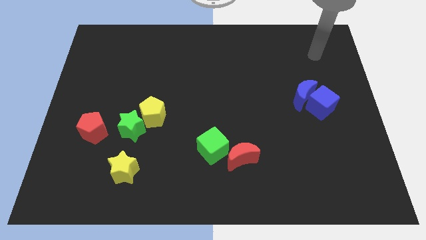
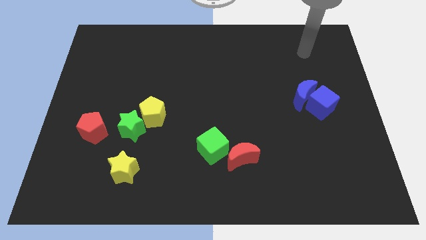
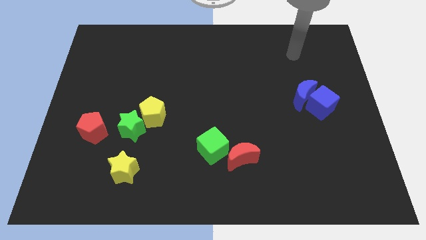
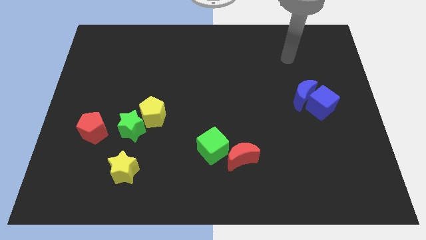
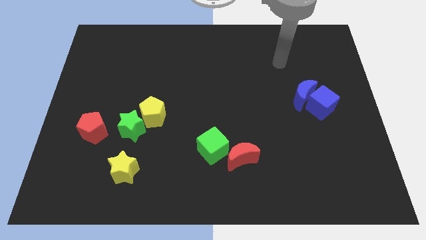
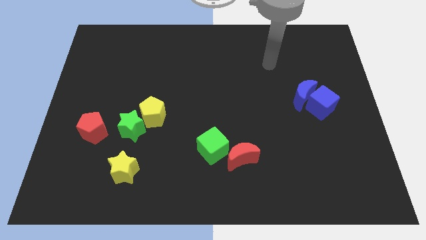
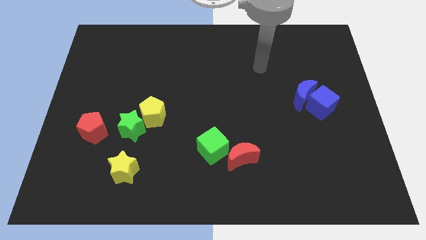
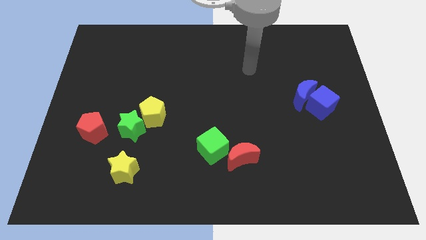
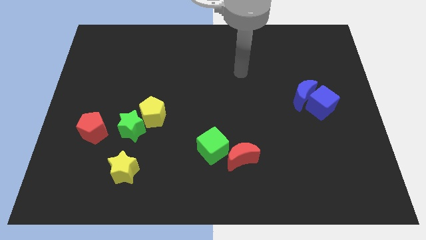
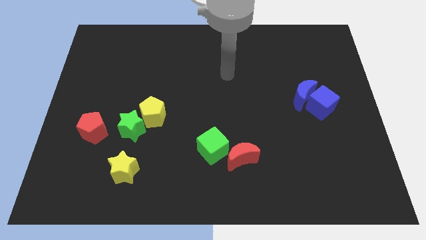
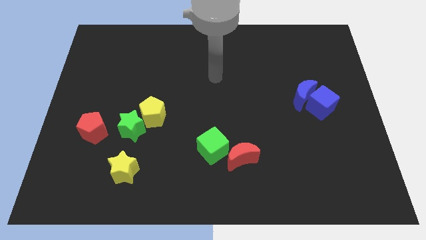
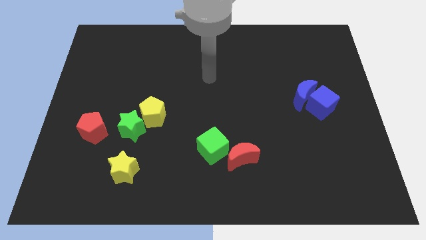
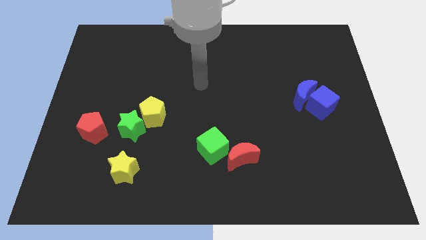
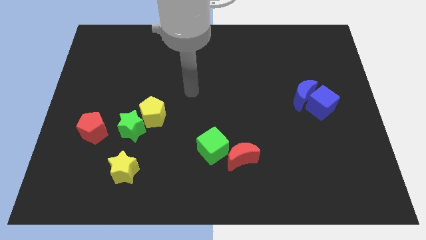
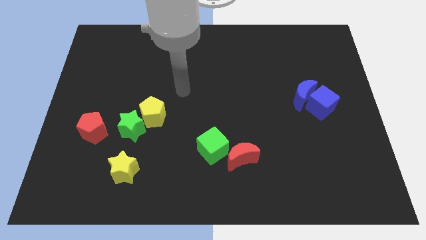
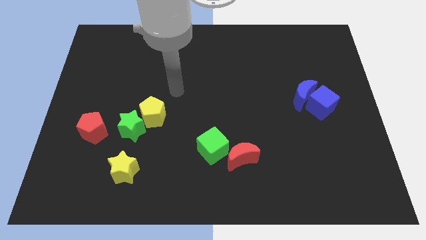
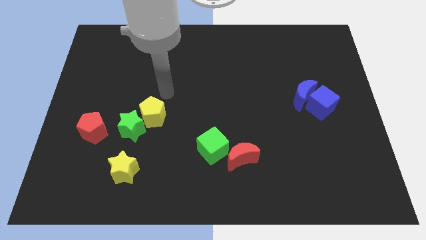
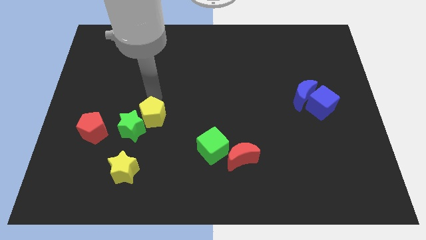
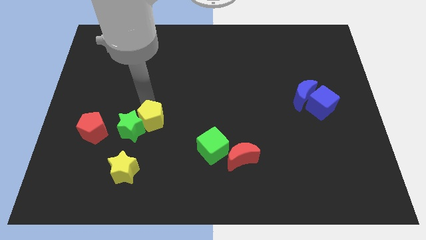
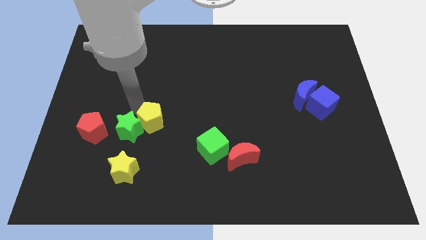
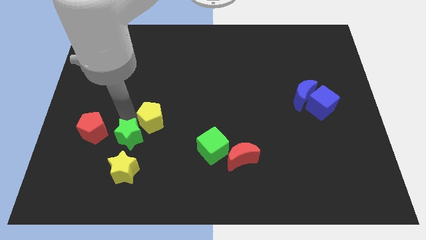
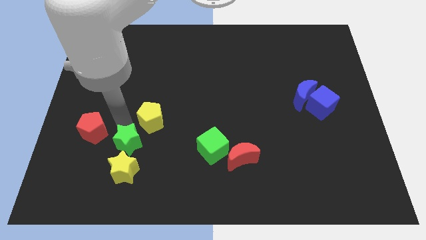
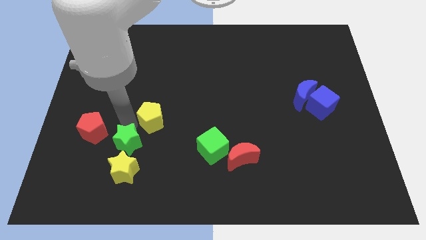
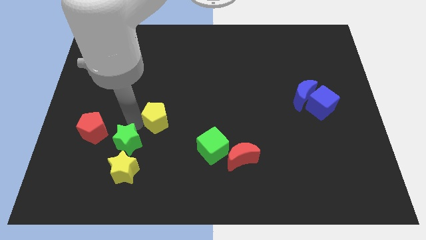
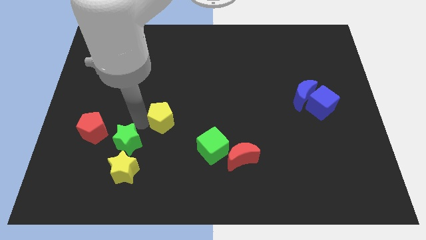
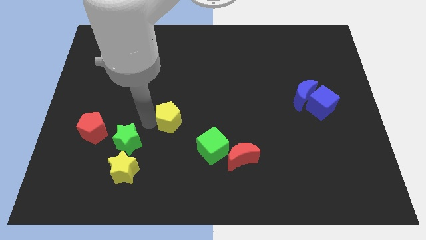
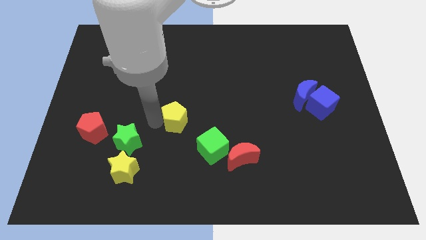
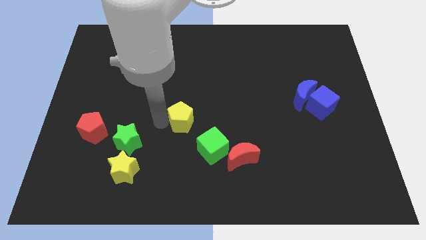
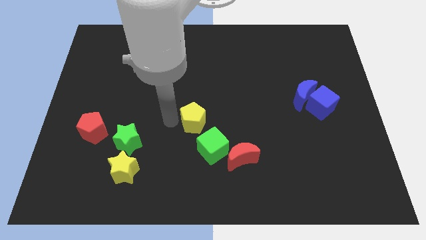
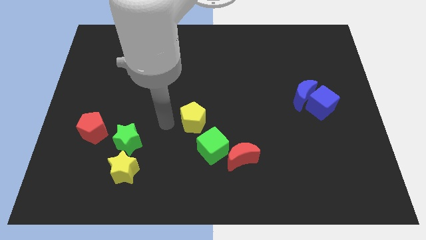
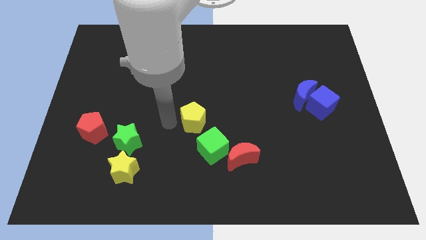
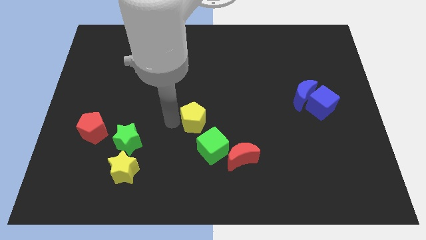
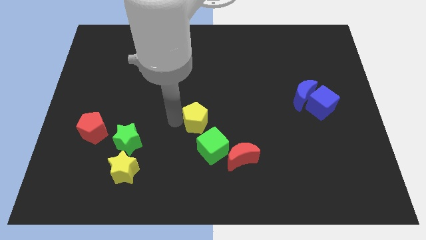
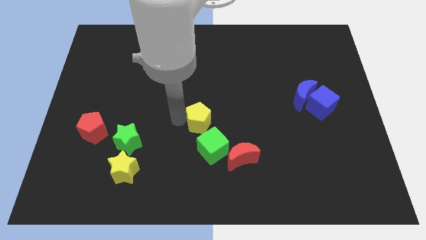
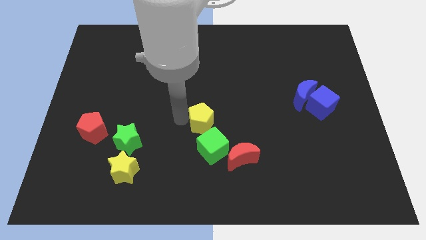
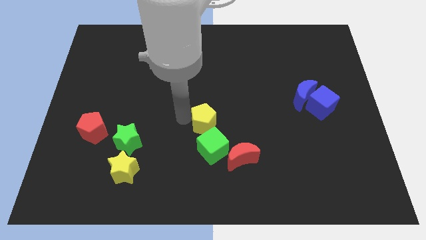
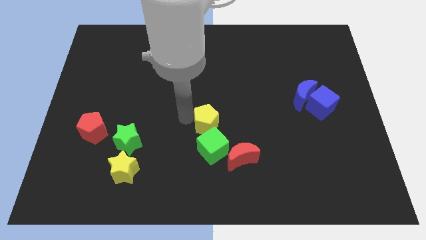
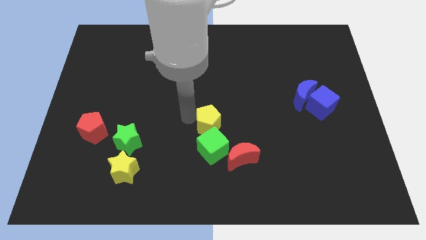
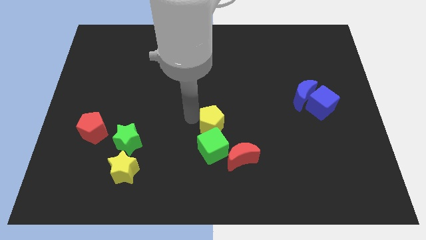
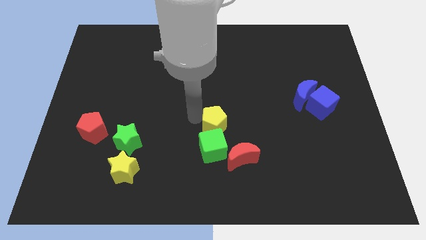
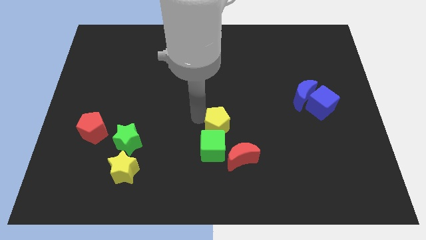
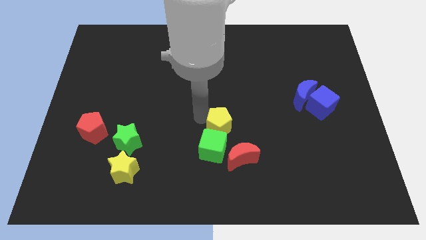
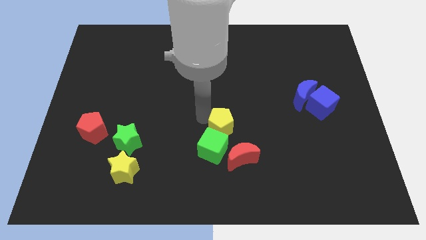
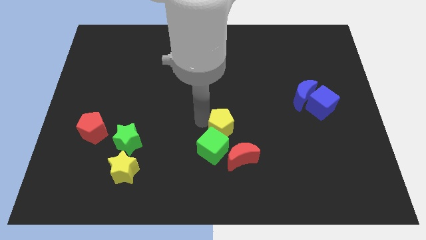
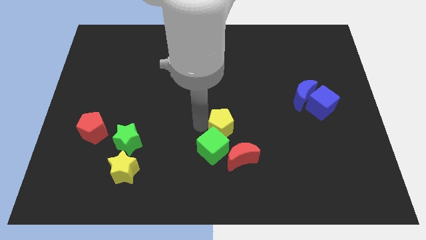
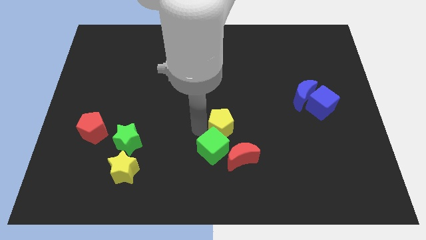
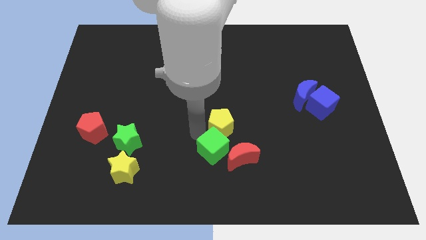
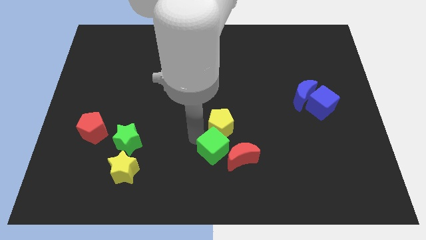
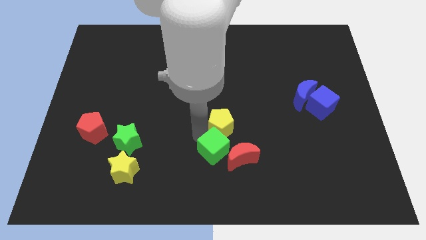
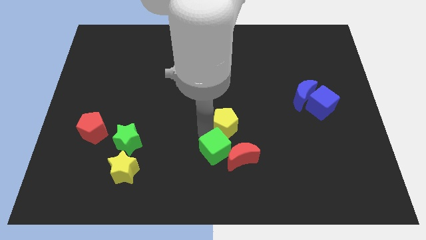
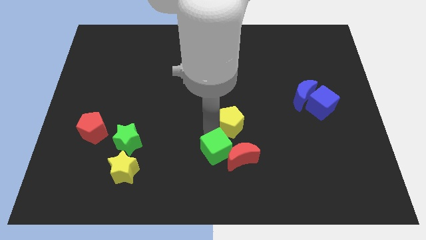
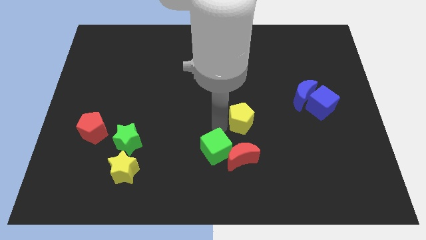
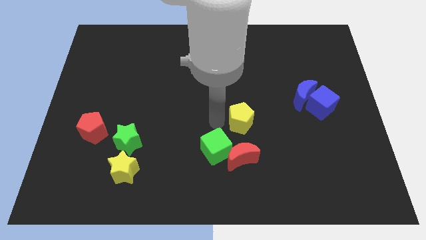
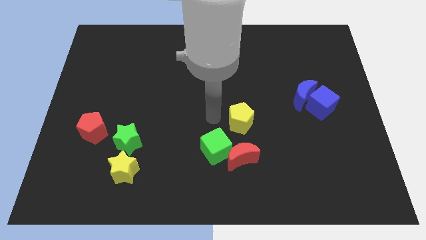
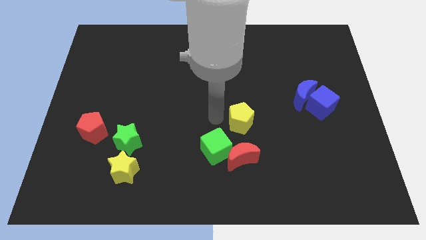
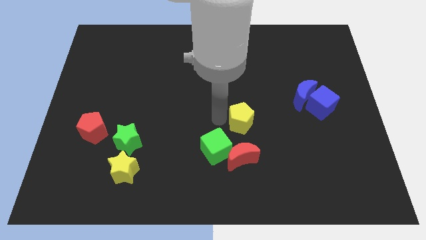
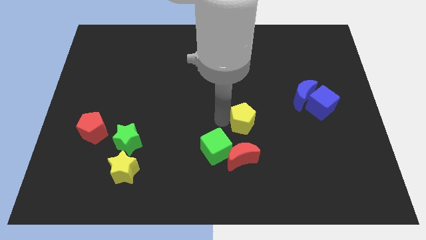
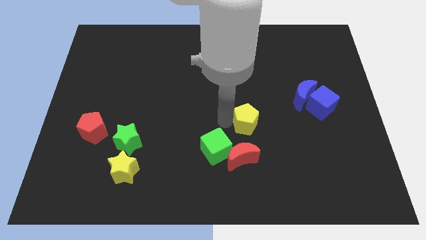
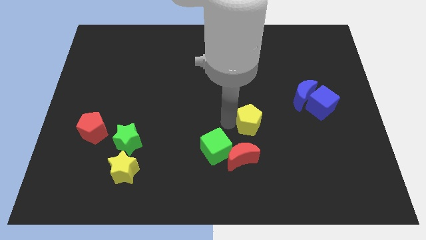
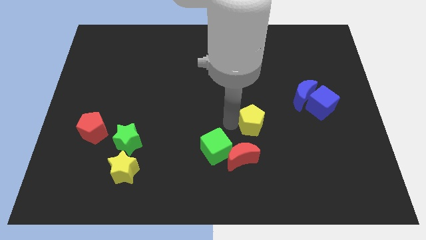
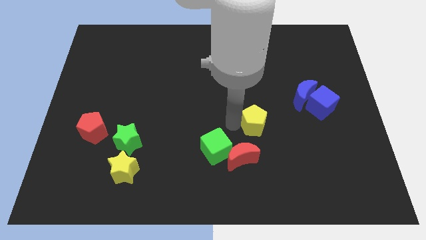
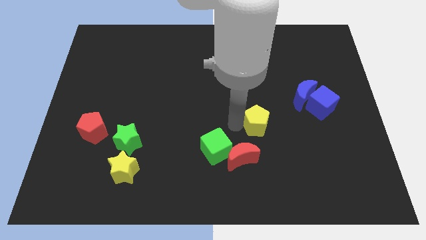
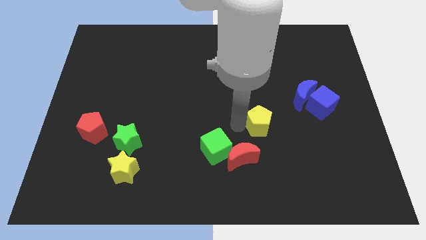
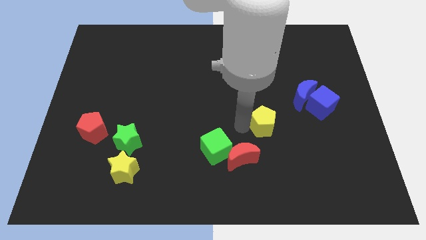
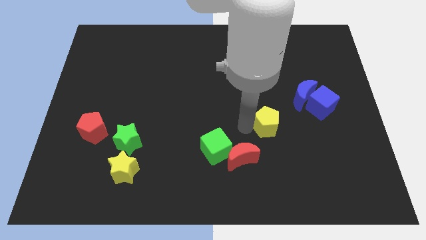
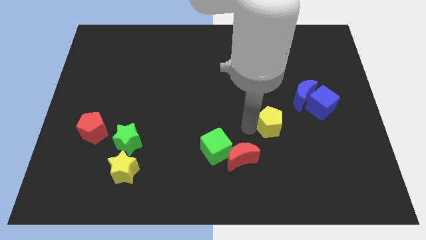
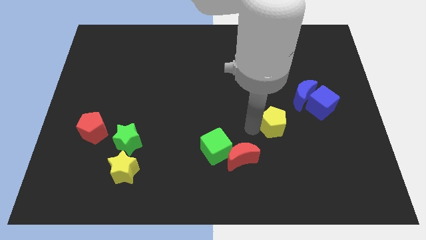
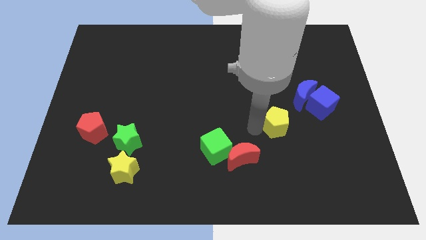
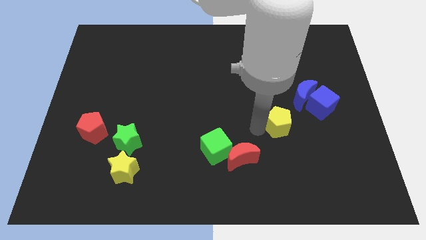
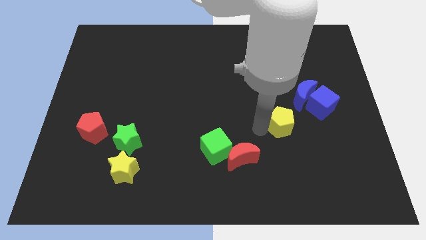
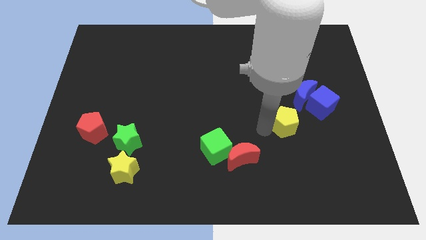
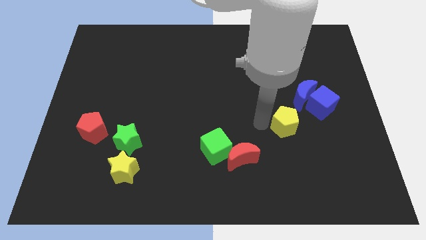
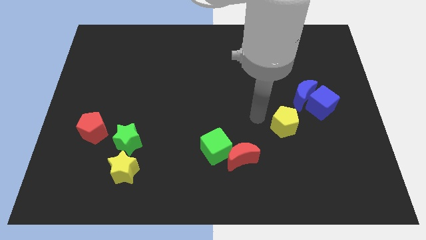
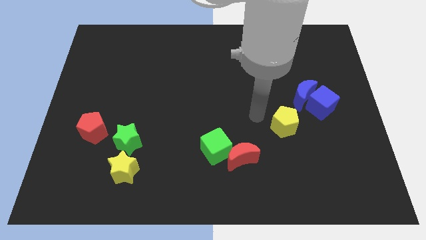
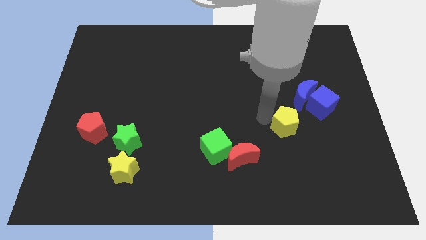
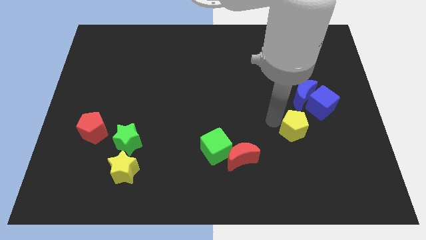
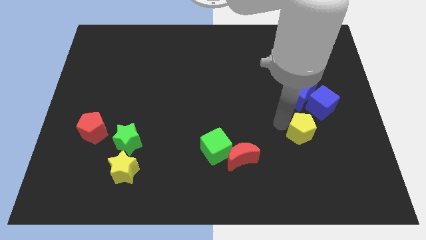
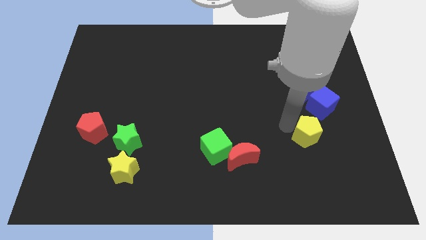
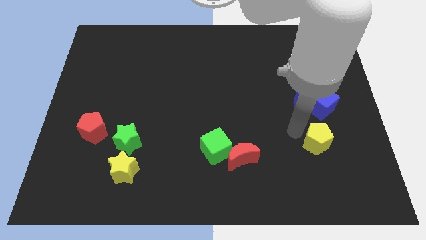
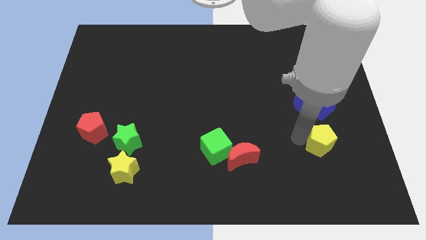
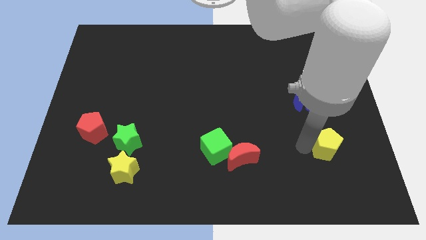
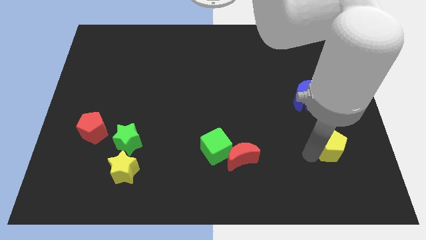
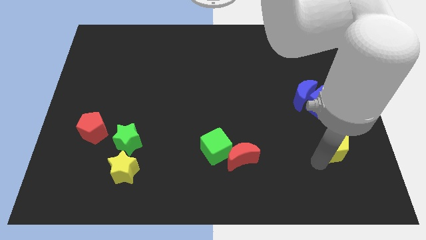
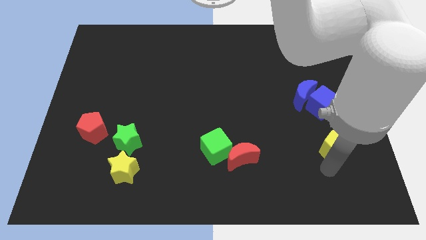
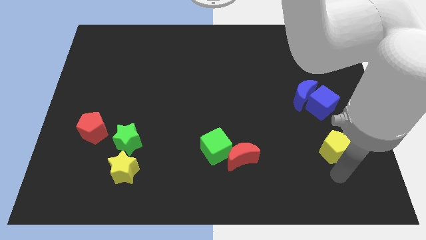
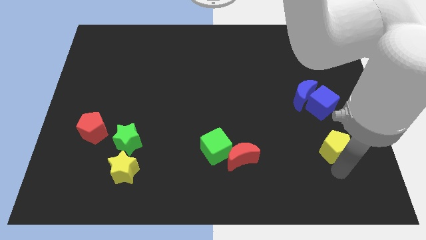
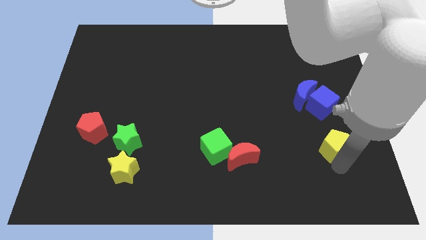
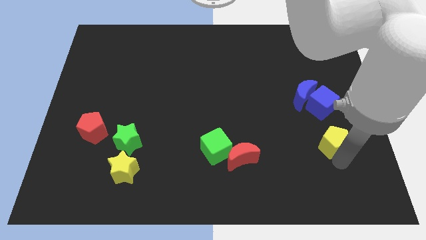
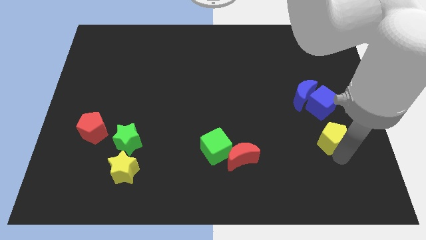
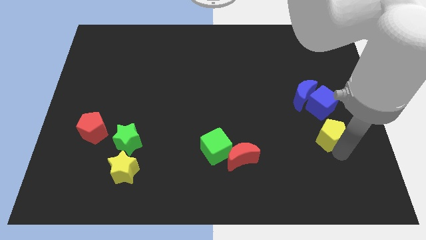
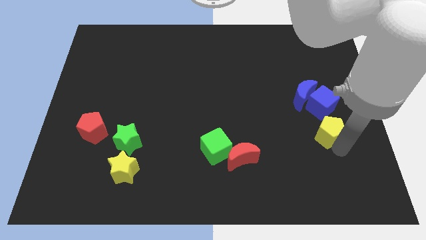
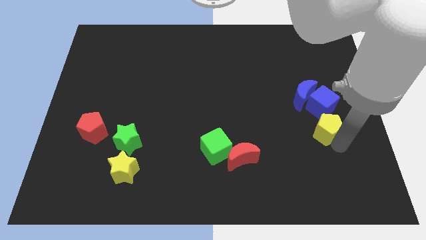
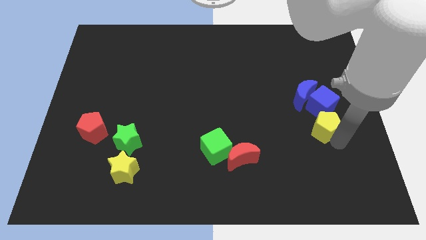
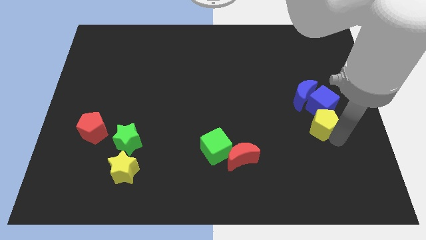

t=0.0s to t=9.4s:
move the yellow pentagon towards the blue cube
